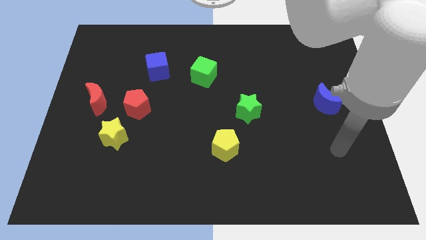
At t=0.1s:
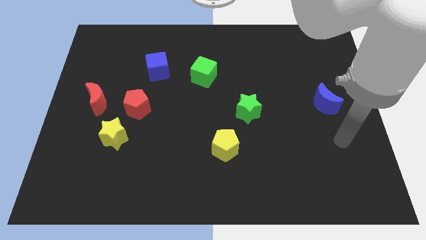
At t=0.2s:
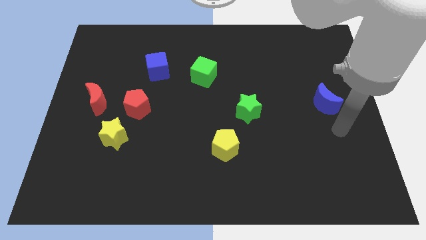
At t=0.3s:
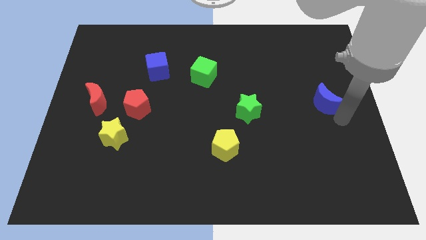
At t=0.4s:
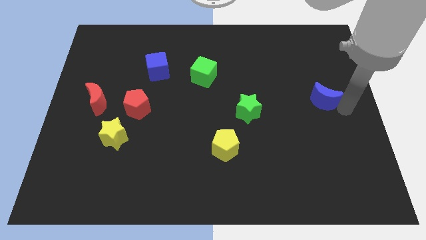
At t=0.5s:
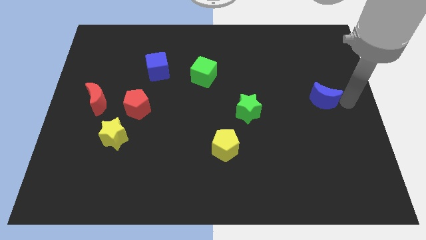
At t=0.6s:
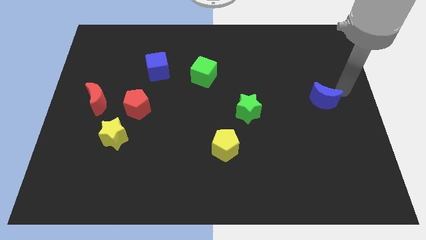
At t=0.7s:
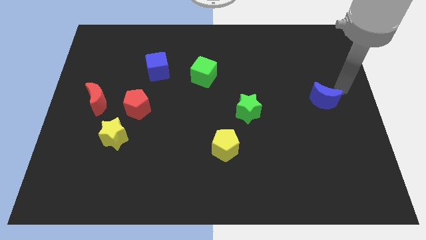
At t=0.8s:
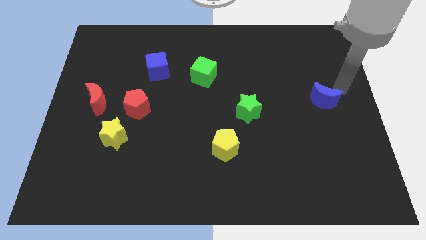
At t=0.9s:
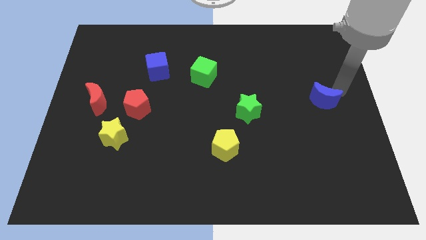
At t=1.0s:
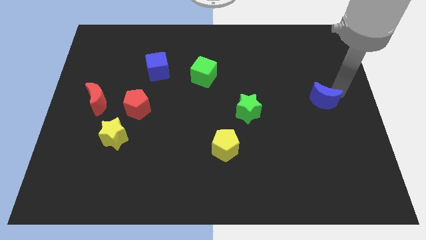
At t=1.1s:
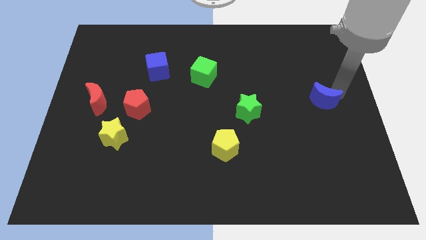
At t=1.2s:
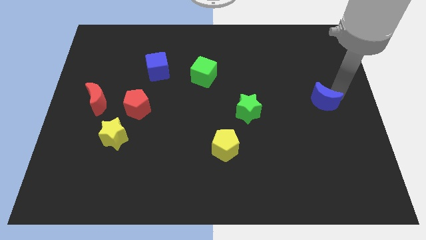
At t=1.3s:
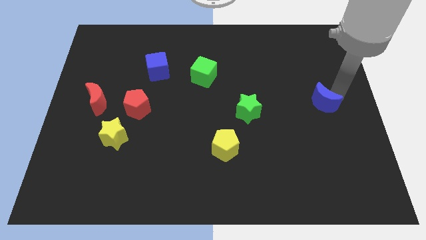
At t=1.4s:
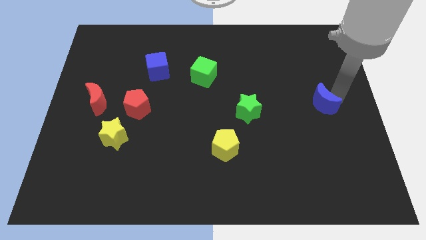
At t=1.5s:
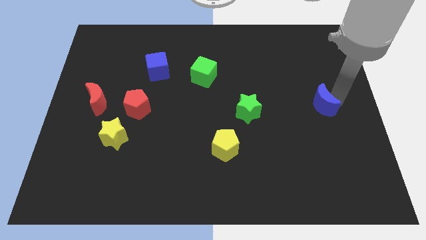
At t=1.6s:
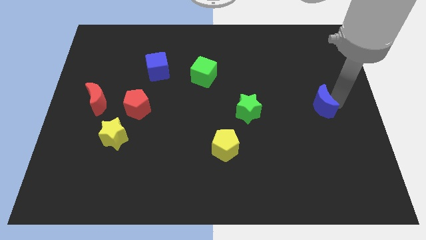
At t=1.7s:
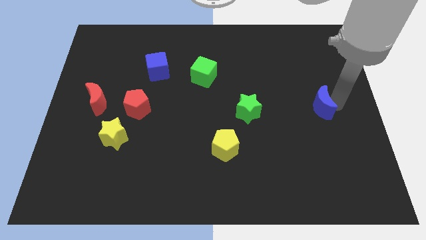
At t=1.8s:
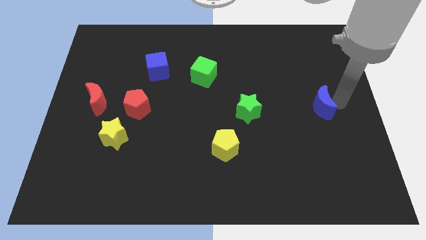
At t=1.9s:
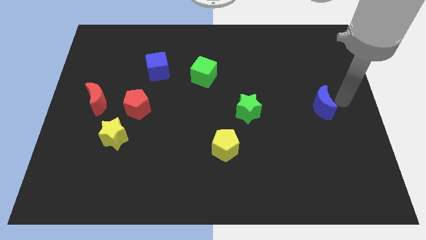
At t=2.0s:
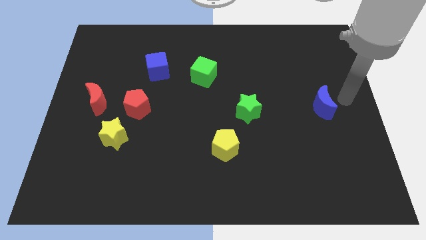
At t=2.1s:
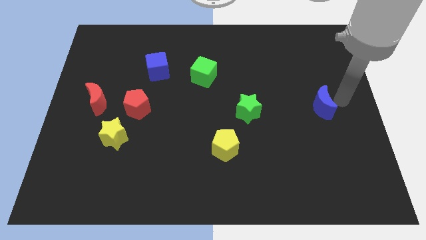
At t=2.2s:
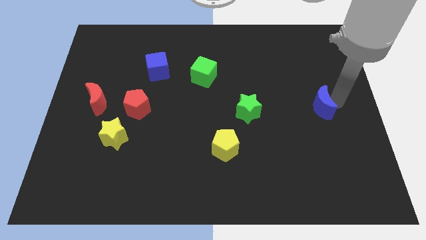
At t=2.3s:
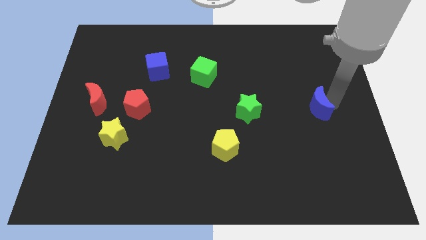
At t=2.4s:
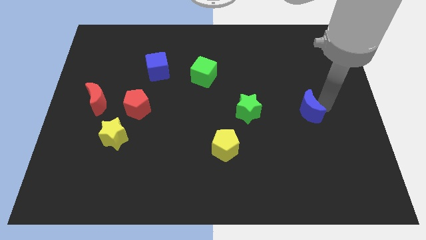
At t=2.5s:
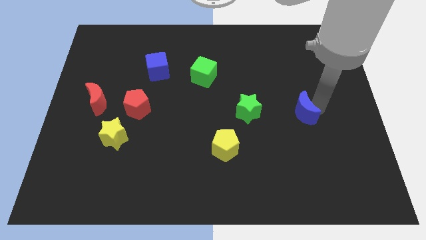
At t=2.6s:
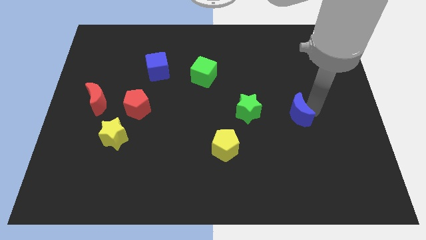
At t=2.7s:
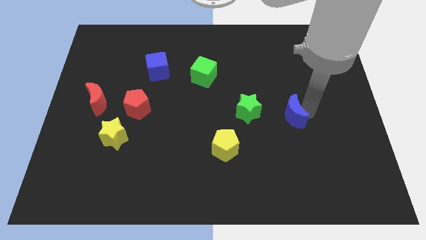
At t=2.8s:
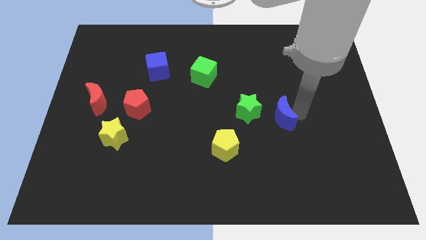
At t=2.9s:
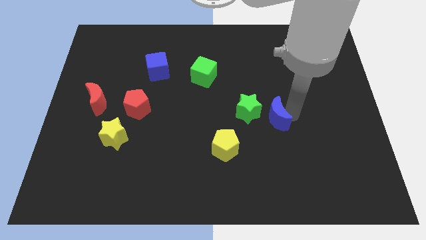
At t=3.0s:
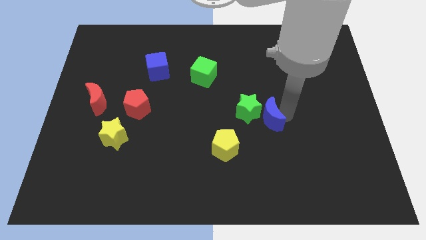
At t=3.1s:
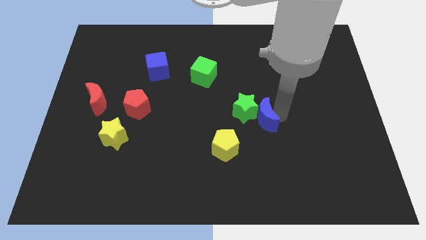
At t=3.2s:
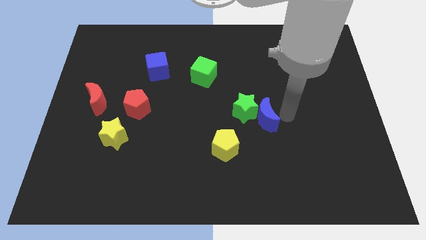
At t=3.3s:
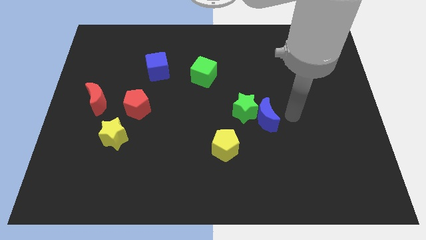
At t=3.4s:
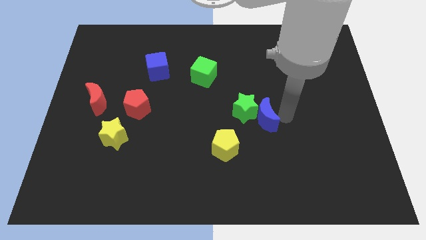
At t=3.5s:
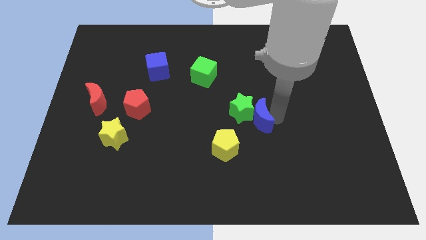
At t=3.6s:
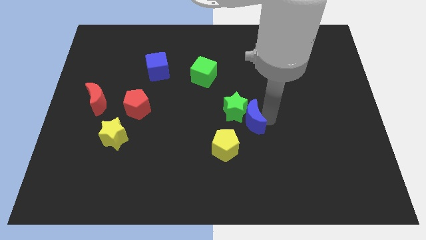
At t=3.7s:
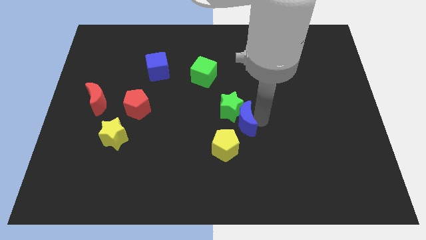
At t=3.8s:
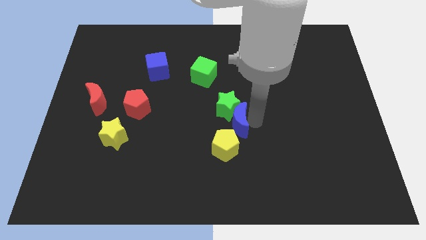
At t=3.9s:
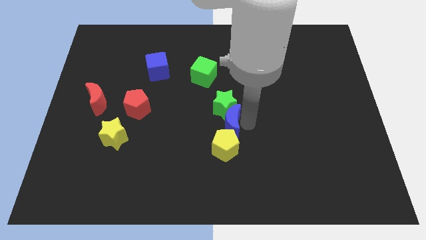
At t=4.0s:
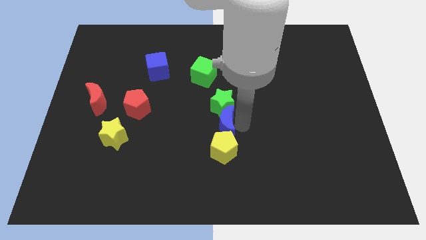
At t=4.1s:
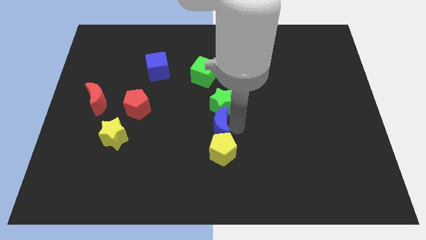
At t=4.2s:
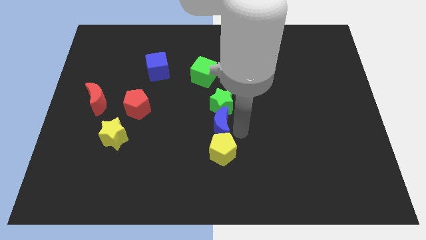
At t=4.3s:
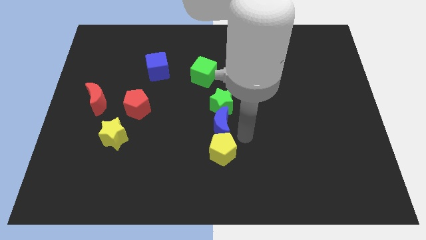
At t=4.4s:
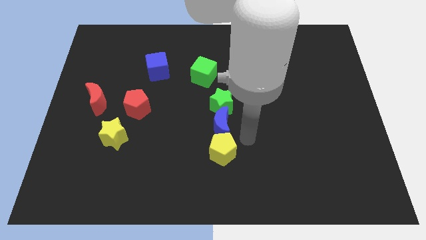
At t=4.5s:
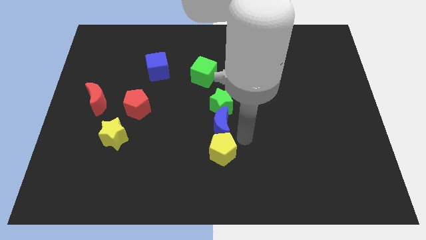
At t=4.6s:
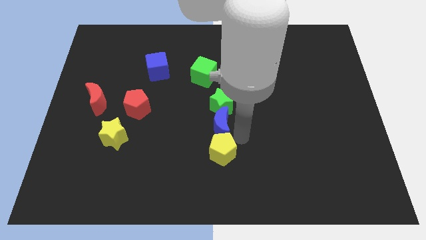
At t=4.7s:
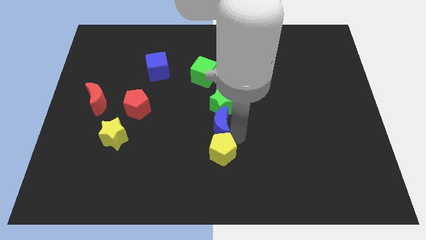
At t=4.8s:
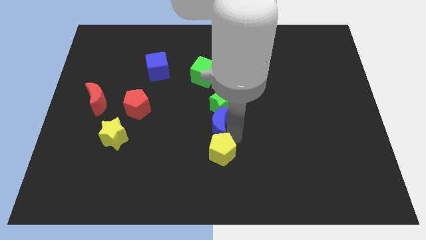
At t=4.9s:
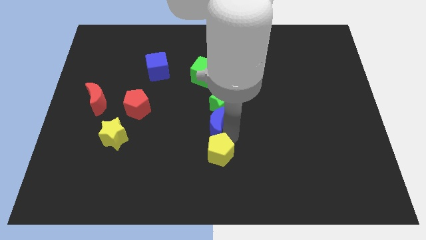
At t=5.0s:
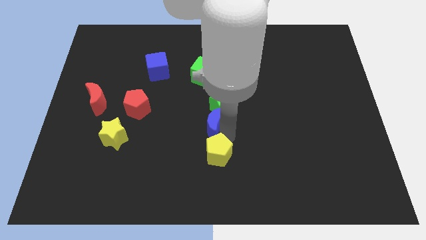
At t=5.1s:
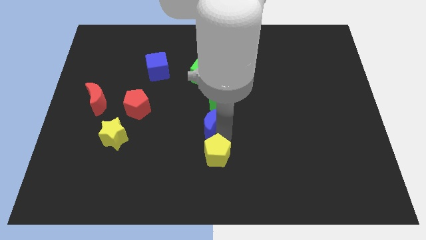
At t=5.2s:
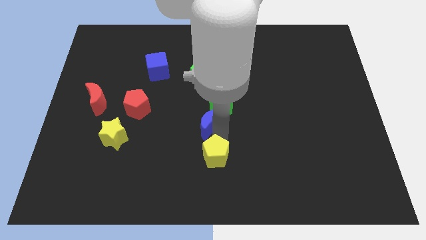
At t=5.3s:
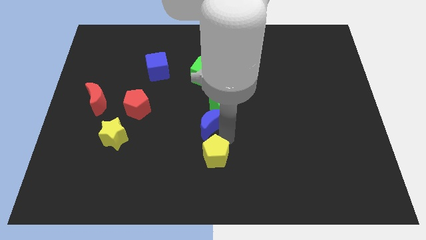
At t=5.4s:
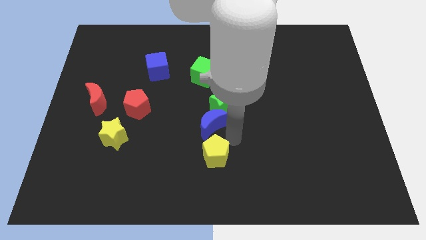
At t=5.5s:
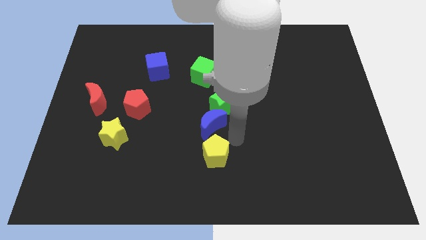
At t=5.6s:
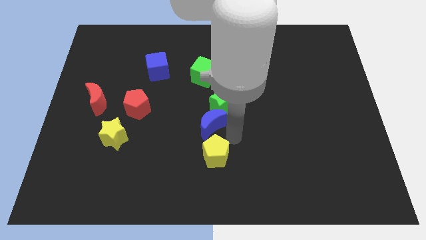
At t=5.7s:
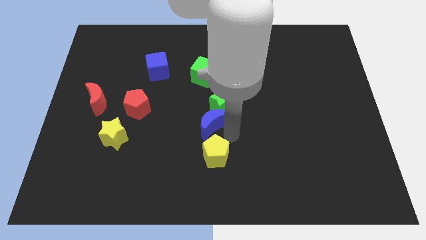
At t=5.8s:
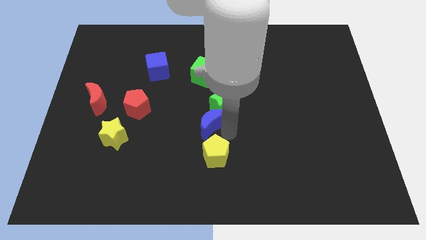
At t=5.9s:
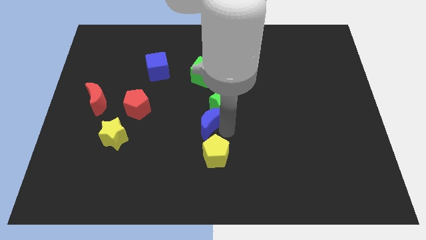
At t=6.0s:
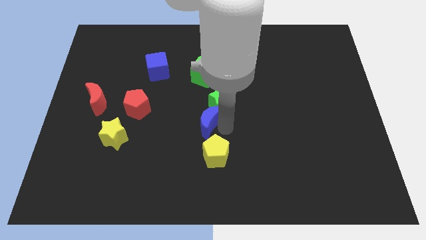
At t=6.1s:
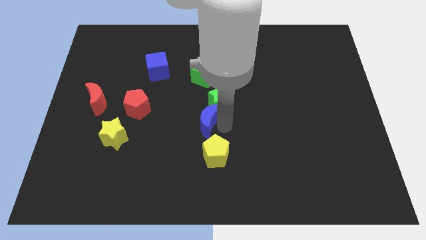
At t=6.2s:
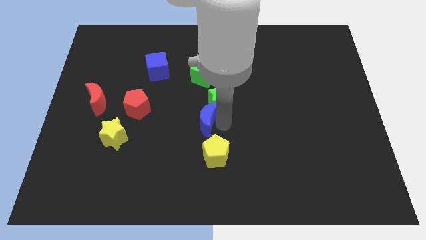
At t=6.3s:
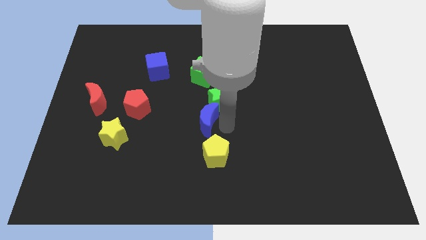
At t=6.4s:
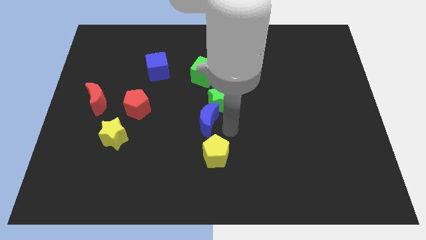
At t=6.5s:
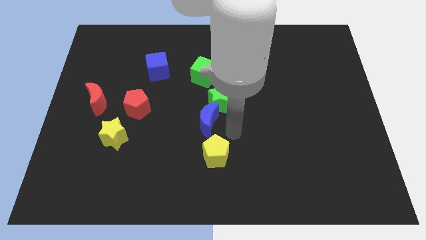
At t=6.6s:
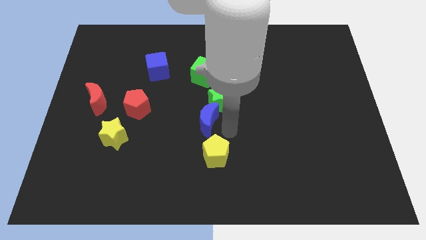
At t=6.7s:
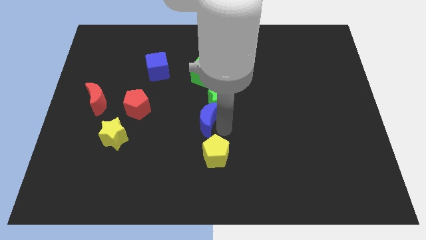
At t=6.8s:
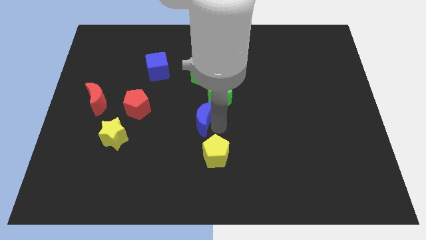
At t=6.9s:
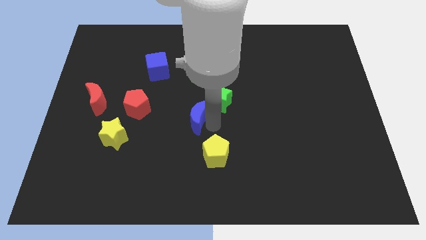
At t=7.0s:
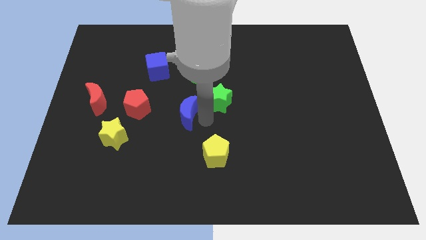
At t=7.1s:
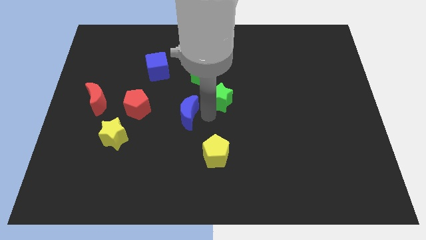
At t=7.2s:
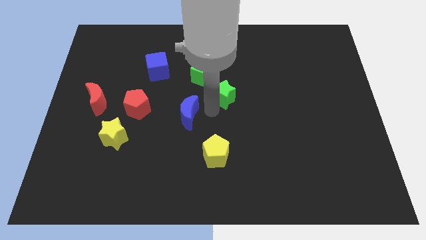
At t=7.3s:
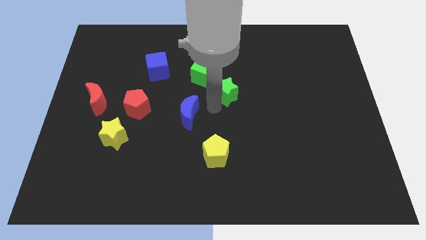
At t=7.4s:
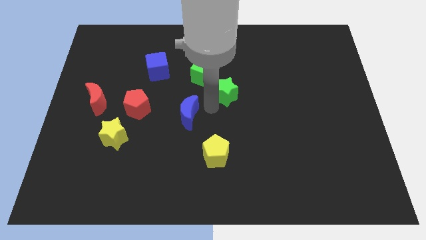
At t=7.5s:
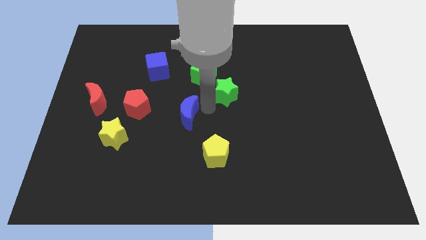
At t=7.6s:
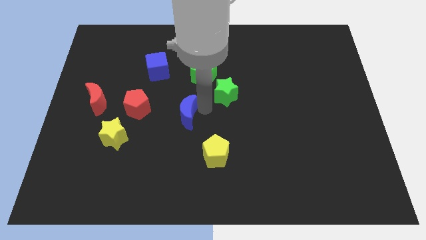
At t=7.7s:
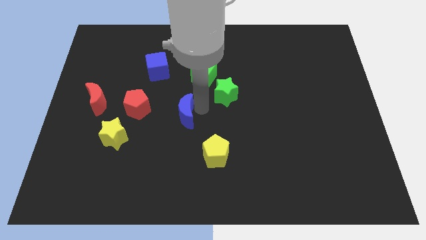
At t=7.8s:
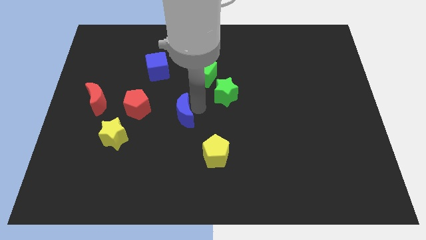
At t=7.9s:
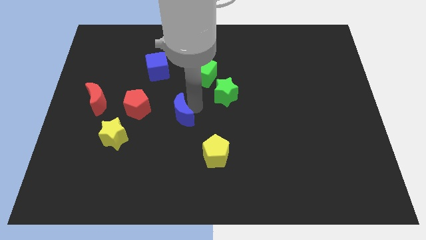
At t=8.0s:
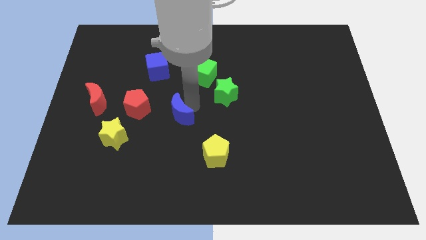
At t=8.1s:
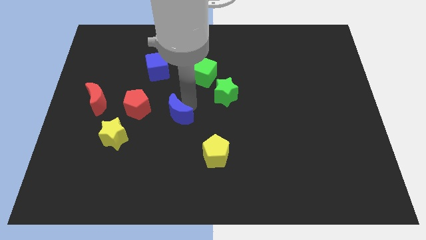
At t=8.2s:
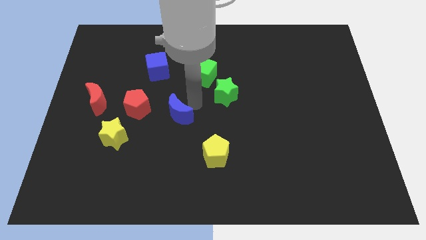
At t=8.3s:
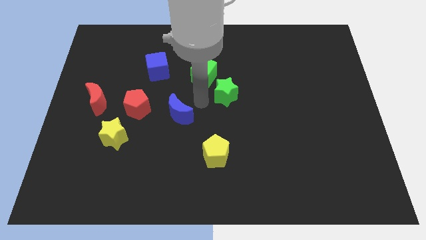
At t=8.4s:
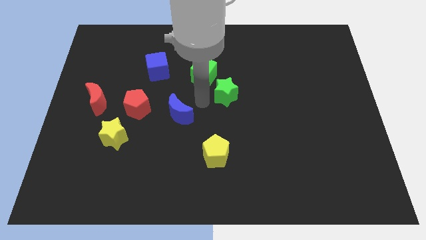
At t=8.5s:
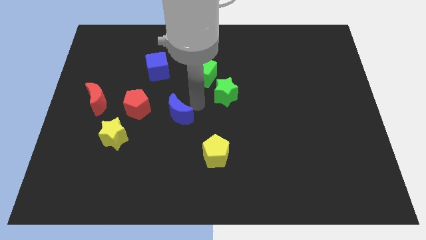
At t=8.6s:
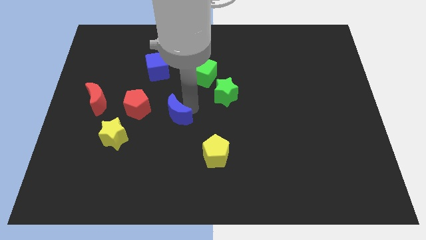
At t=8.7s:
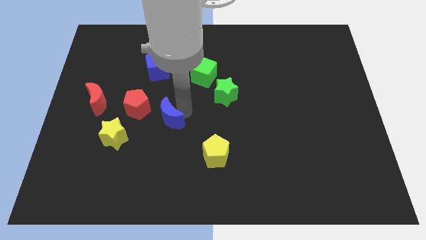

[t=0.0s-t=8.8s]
move the blue moon to the bottom right of the red pentagon
